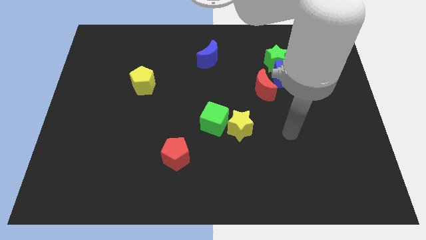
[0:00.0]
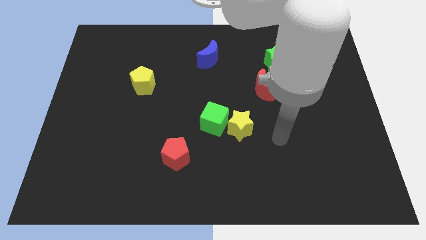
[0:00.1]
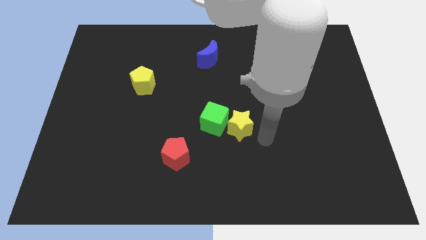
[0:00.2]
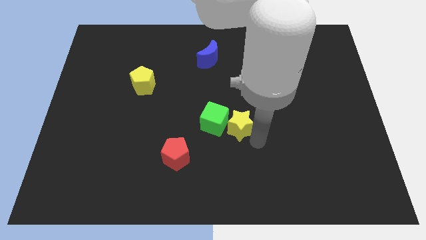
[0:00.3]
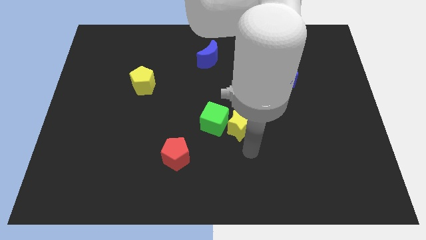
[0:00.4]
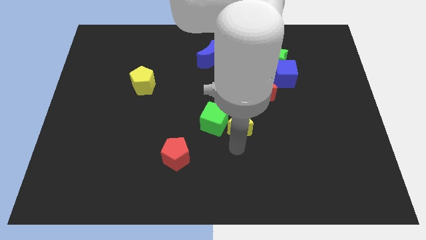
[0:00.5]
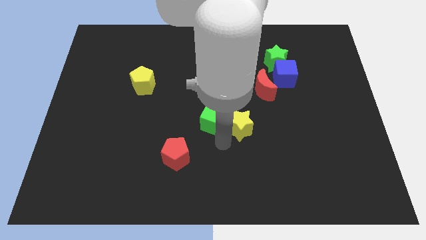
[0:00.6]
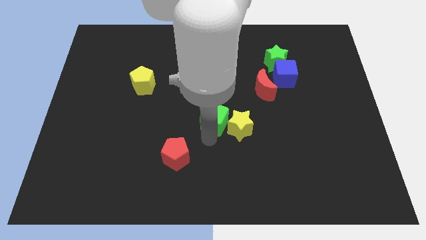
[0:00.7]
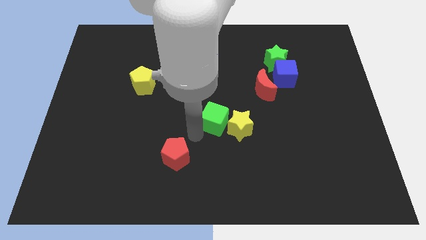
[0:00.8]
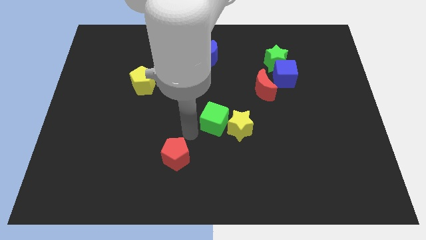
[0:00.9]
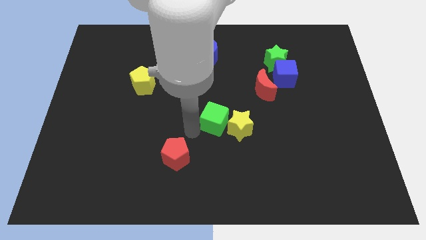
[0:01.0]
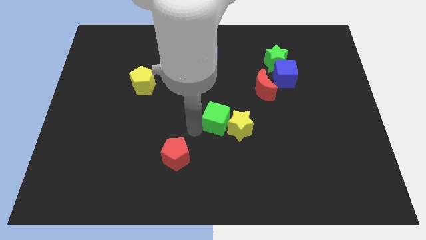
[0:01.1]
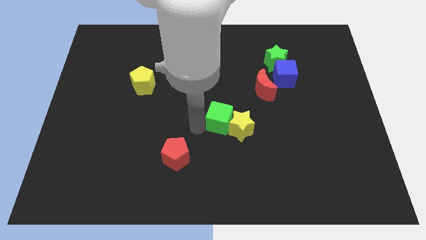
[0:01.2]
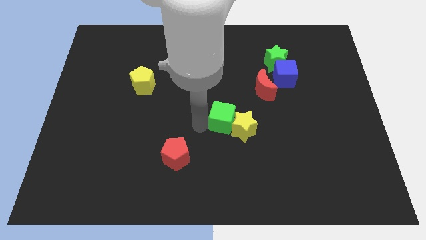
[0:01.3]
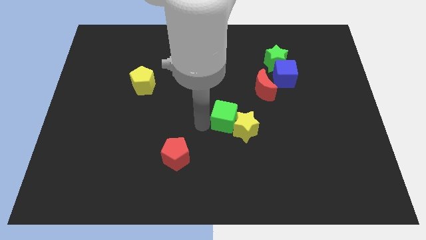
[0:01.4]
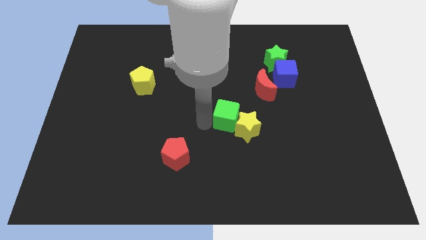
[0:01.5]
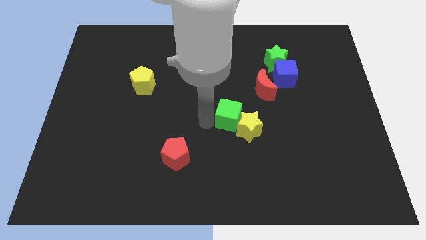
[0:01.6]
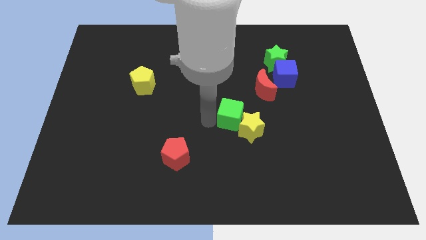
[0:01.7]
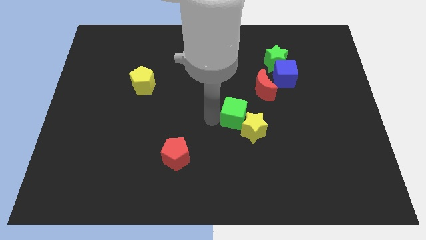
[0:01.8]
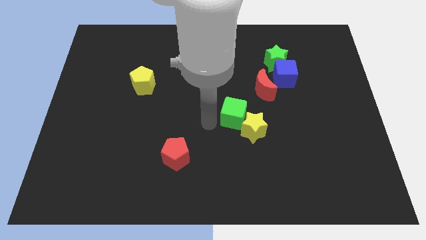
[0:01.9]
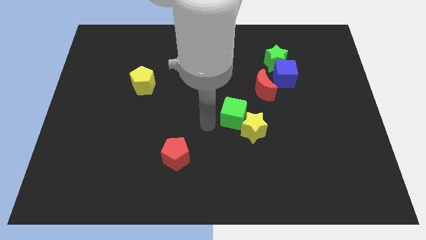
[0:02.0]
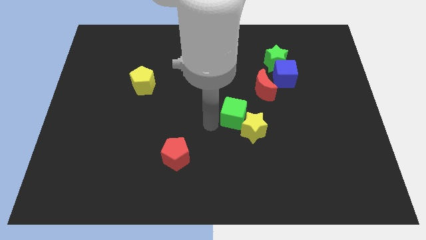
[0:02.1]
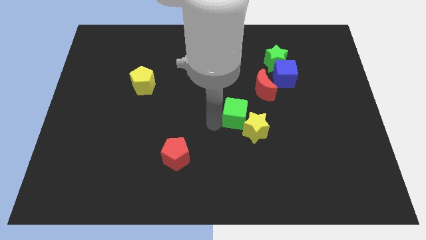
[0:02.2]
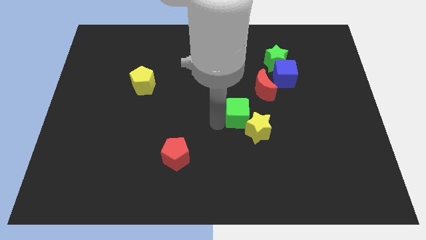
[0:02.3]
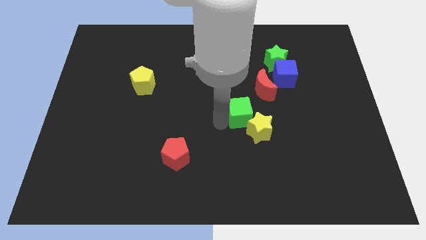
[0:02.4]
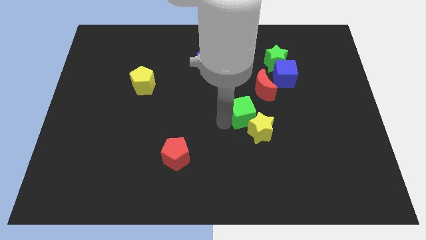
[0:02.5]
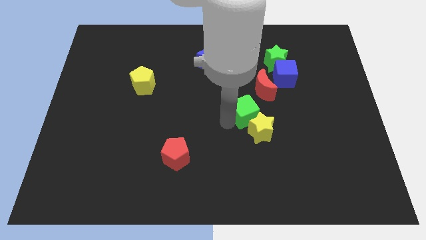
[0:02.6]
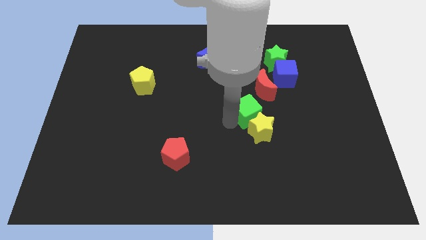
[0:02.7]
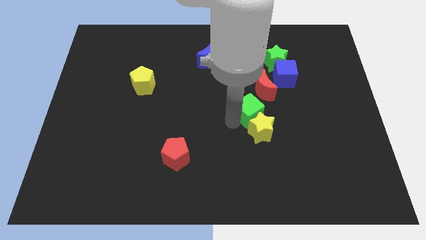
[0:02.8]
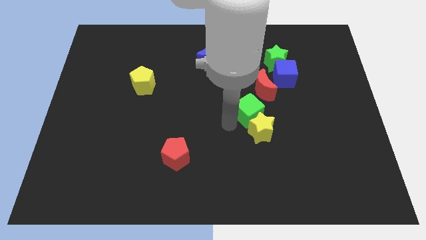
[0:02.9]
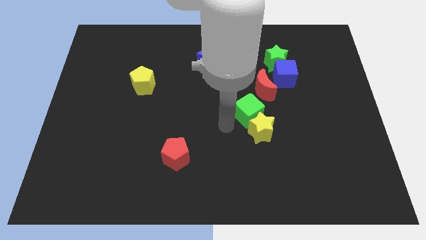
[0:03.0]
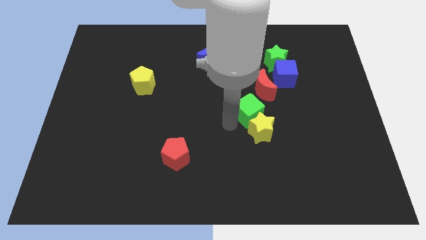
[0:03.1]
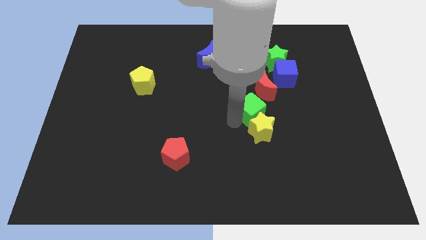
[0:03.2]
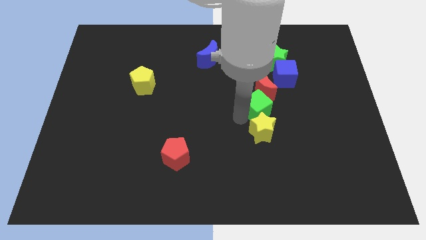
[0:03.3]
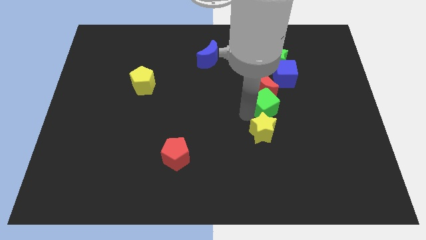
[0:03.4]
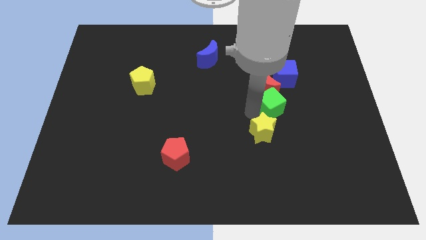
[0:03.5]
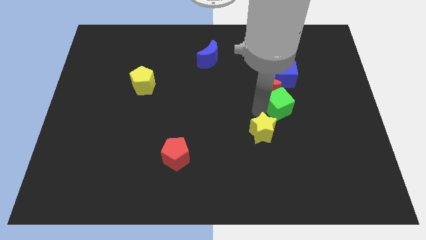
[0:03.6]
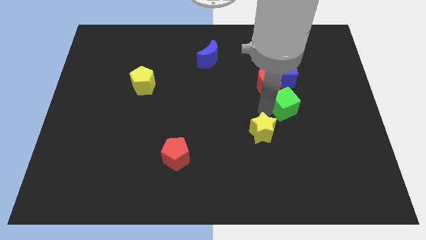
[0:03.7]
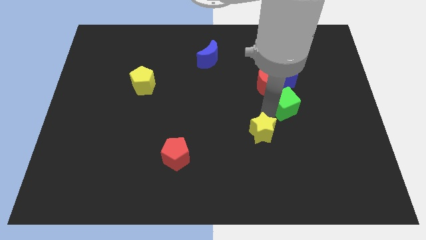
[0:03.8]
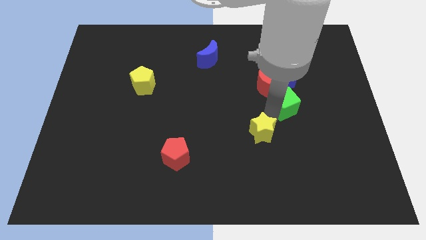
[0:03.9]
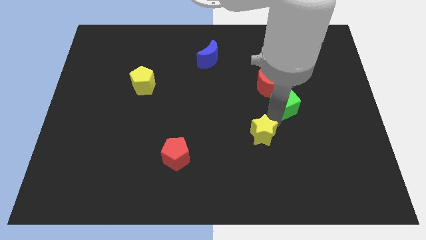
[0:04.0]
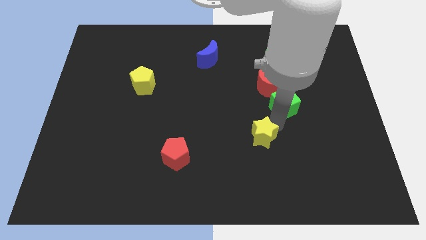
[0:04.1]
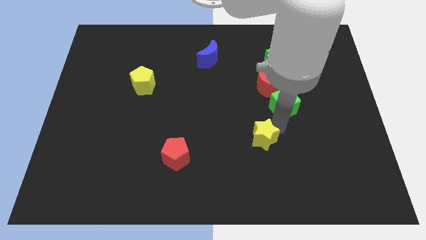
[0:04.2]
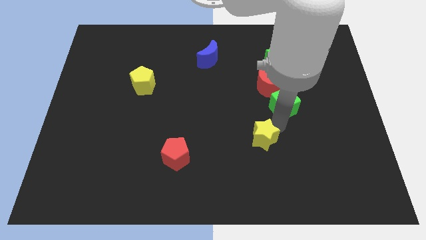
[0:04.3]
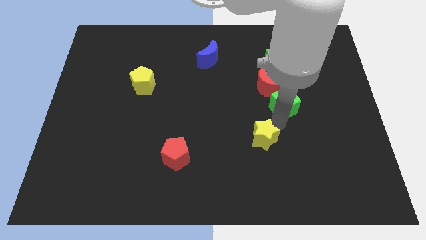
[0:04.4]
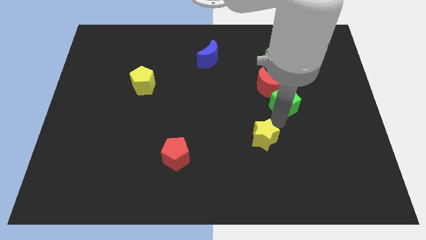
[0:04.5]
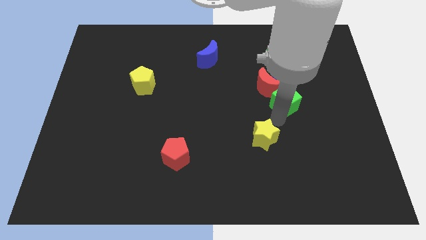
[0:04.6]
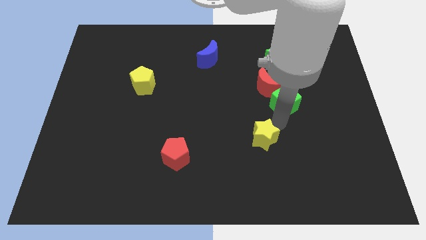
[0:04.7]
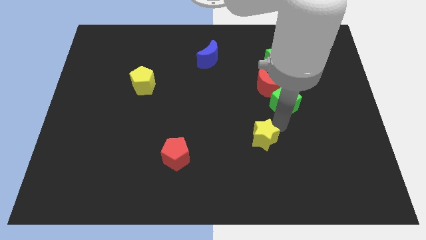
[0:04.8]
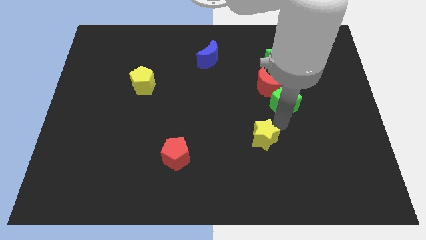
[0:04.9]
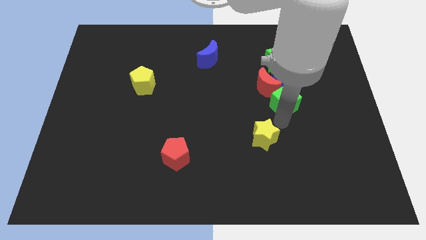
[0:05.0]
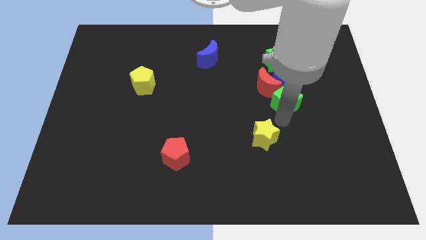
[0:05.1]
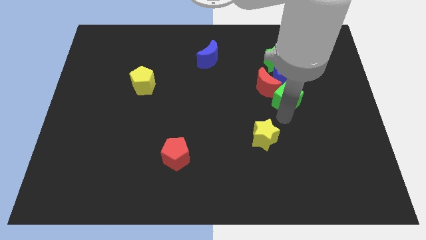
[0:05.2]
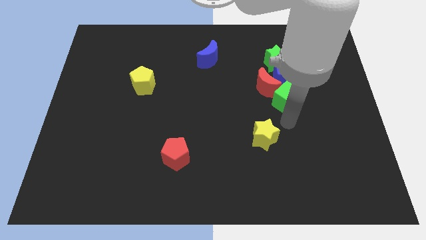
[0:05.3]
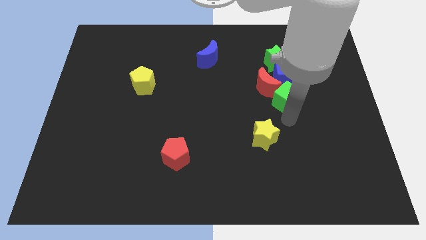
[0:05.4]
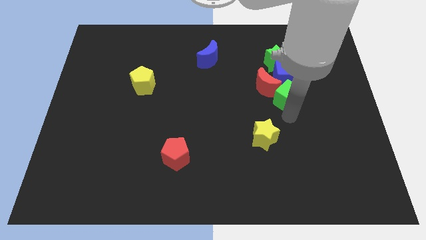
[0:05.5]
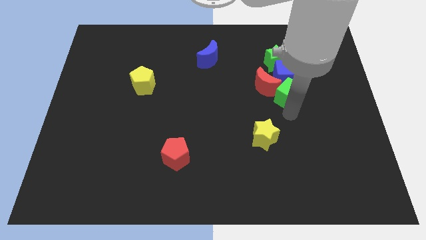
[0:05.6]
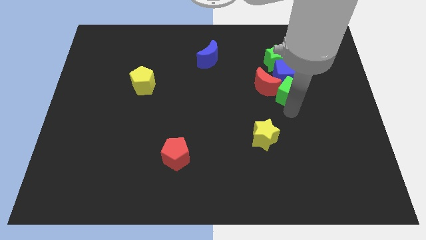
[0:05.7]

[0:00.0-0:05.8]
move the green cube towards the blue cube
